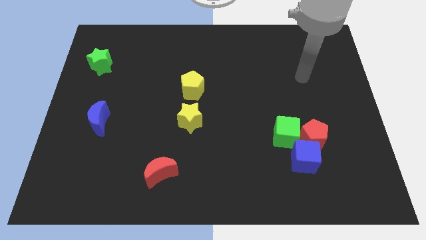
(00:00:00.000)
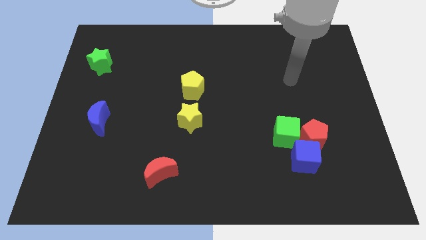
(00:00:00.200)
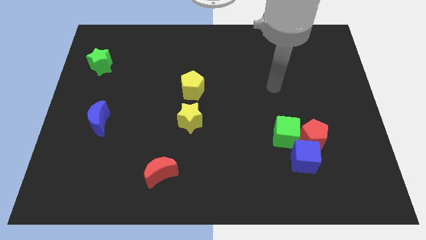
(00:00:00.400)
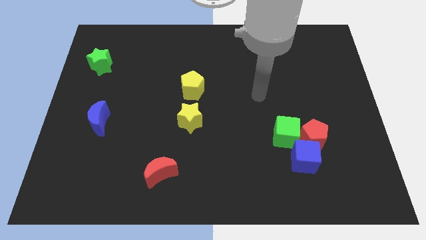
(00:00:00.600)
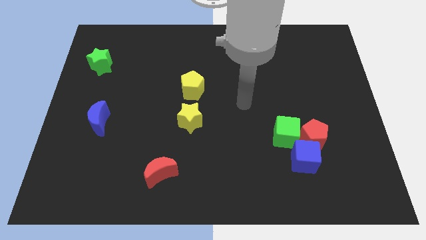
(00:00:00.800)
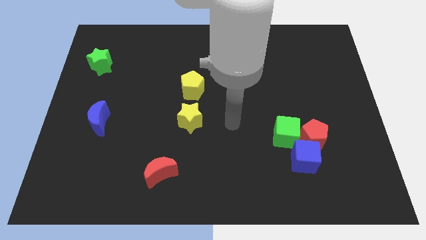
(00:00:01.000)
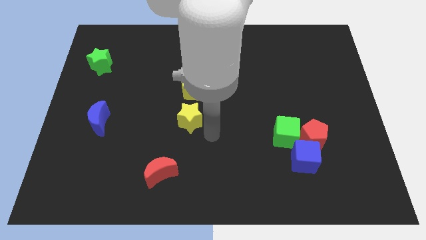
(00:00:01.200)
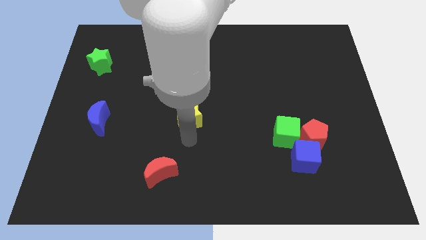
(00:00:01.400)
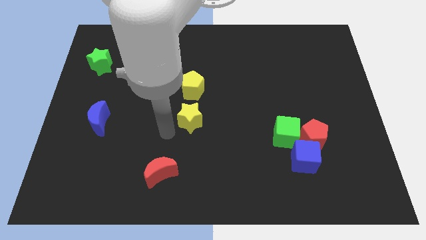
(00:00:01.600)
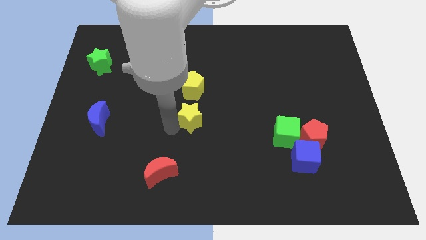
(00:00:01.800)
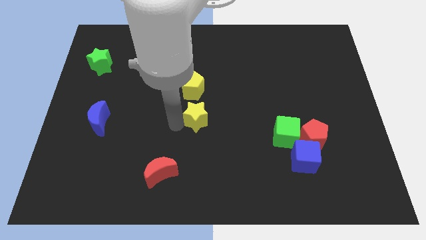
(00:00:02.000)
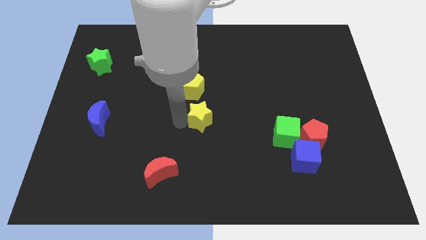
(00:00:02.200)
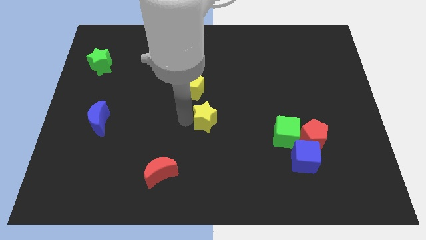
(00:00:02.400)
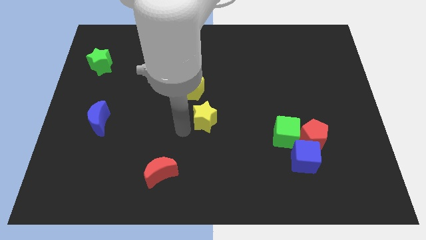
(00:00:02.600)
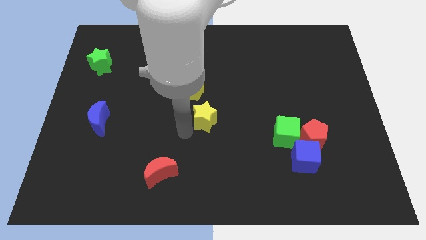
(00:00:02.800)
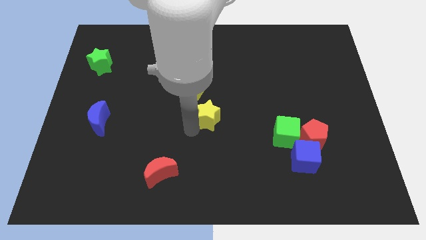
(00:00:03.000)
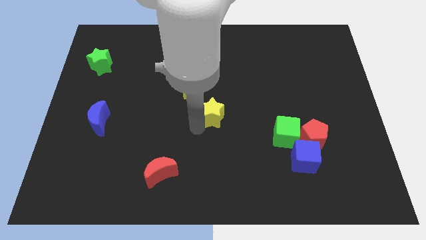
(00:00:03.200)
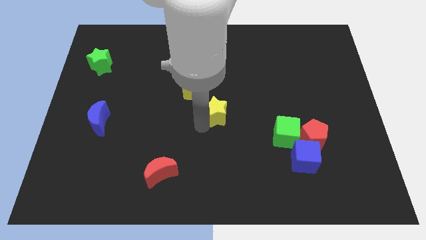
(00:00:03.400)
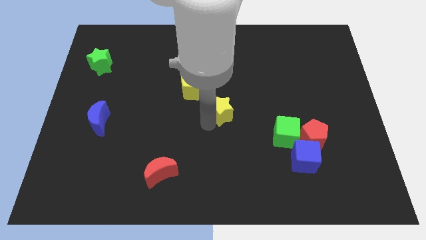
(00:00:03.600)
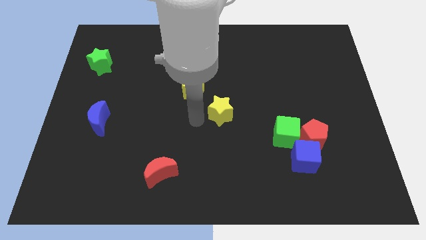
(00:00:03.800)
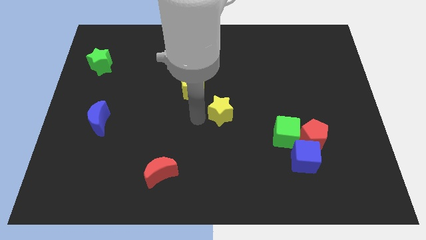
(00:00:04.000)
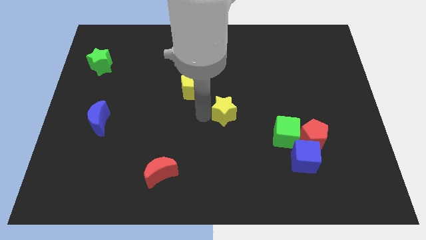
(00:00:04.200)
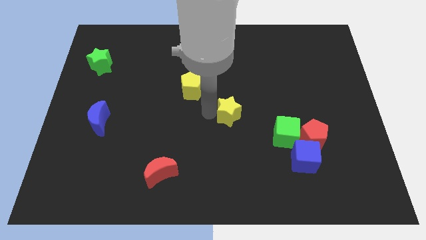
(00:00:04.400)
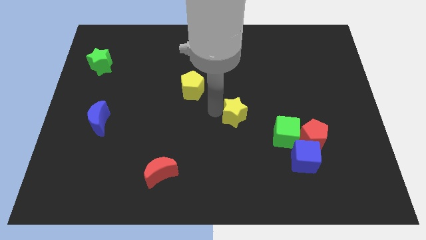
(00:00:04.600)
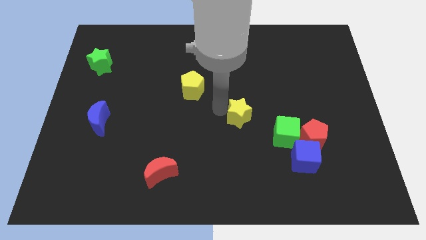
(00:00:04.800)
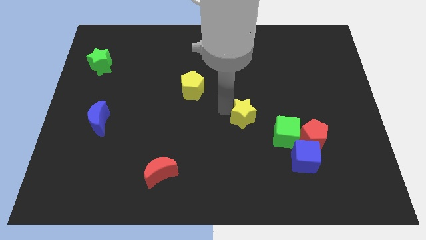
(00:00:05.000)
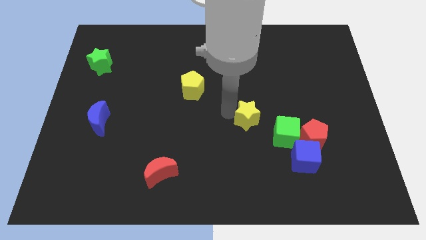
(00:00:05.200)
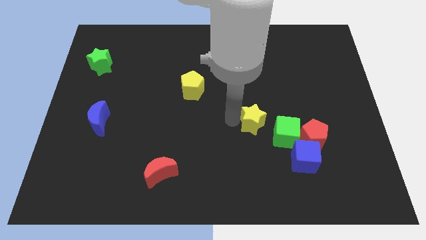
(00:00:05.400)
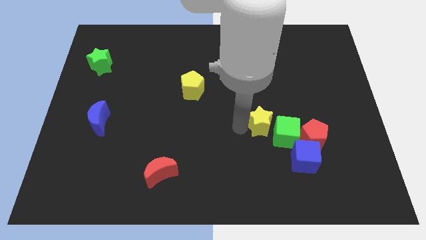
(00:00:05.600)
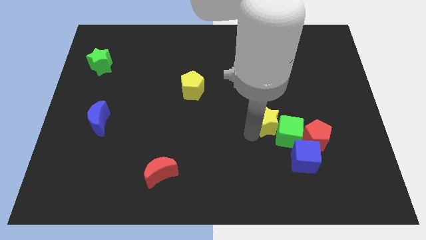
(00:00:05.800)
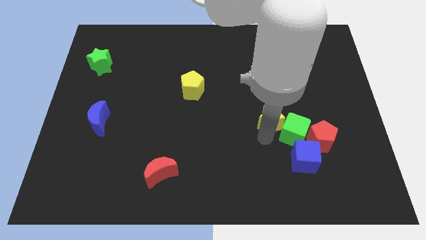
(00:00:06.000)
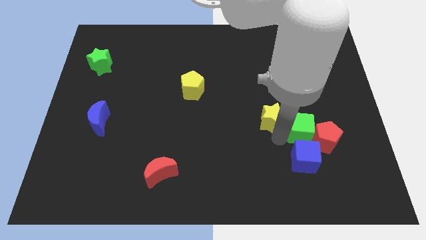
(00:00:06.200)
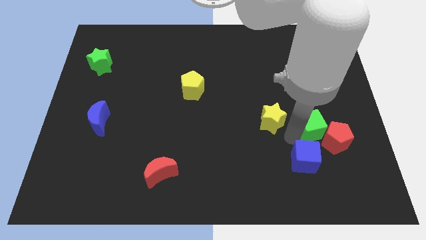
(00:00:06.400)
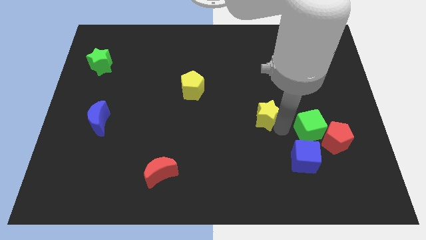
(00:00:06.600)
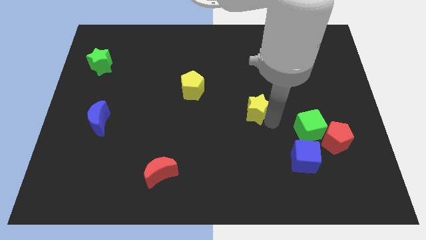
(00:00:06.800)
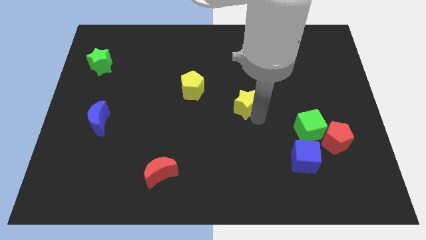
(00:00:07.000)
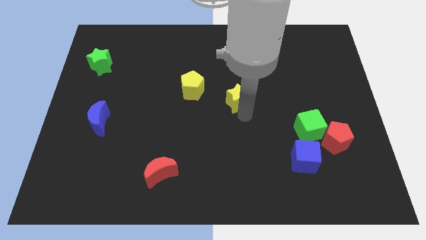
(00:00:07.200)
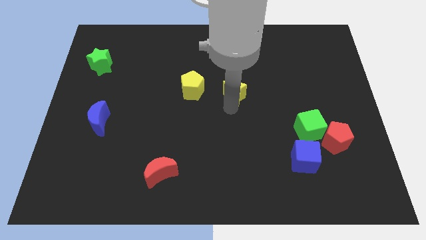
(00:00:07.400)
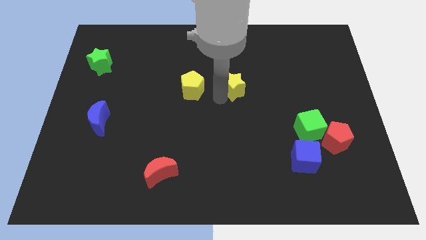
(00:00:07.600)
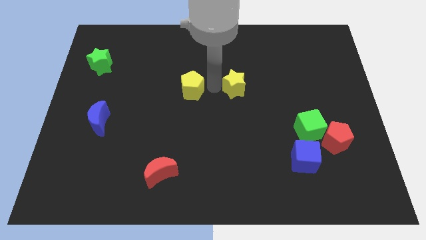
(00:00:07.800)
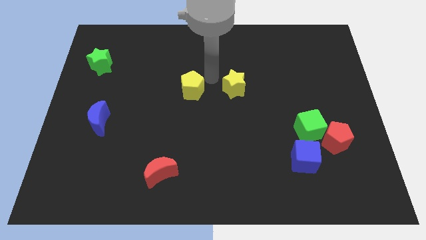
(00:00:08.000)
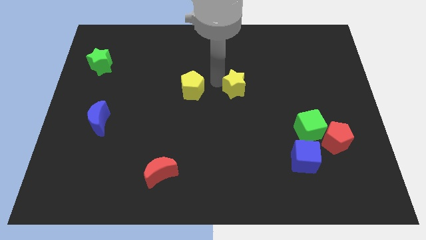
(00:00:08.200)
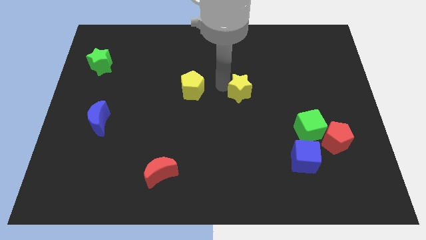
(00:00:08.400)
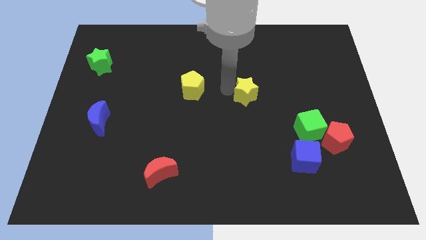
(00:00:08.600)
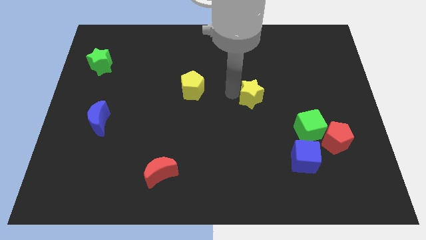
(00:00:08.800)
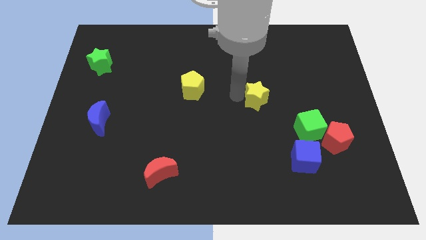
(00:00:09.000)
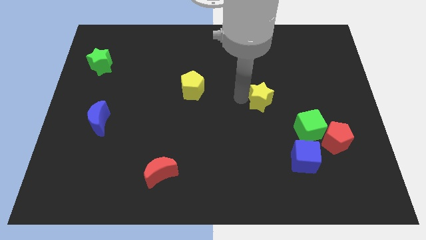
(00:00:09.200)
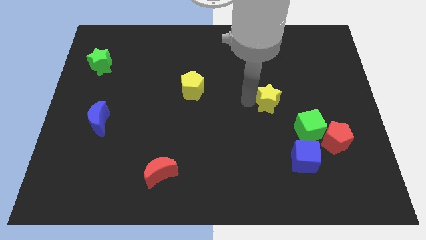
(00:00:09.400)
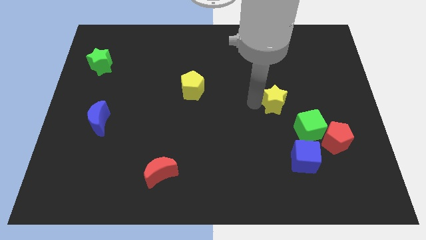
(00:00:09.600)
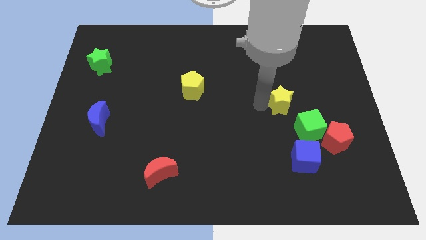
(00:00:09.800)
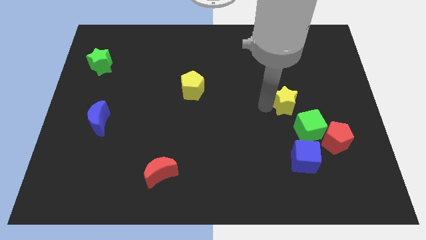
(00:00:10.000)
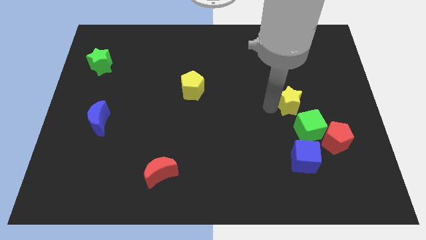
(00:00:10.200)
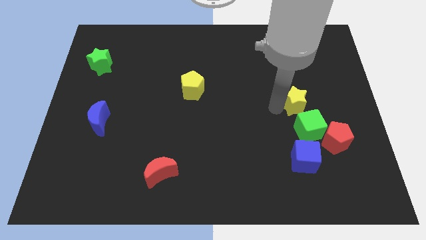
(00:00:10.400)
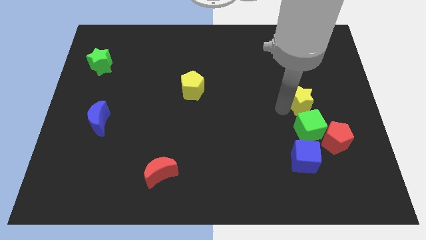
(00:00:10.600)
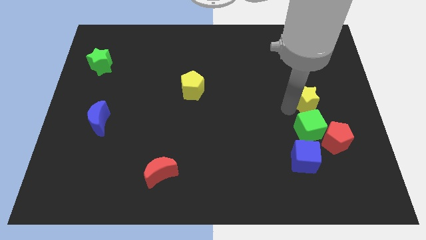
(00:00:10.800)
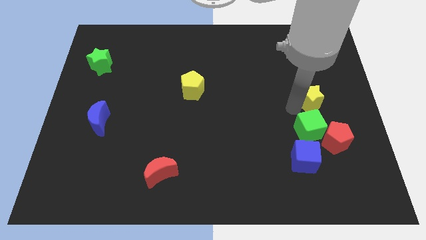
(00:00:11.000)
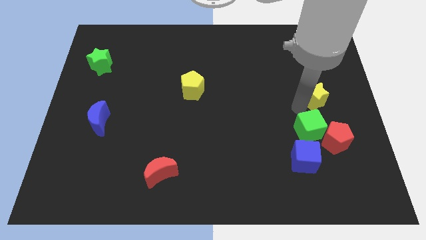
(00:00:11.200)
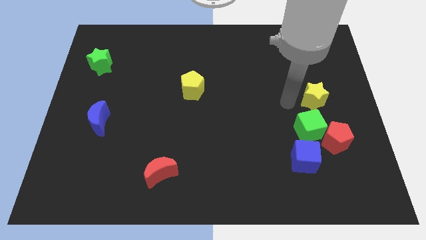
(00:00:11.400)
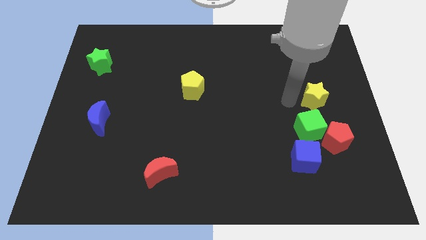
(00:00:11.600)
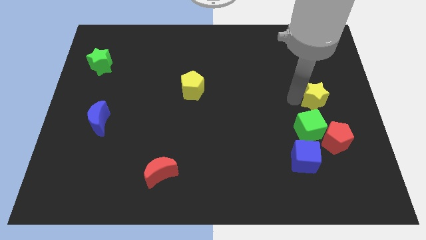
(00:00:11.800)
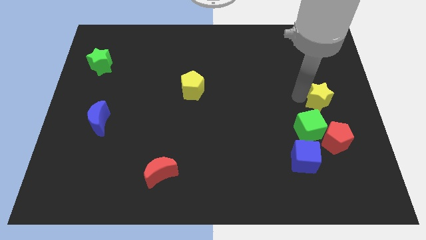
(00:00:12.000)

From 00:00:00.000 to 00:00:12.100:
put the yellow star to the right side

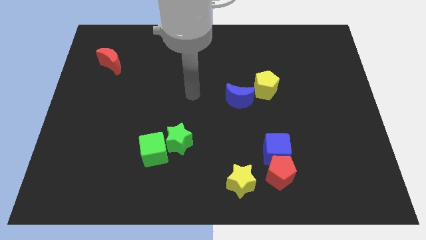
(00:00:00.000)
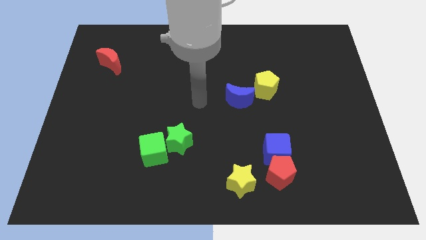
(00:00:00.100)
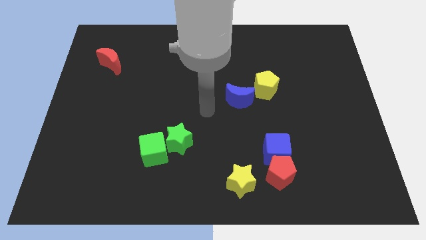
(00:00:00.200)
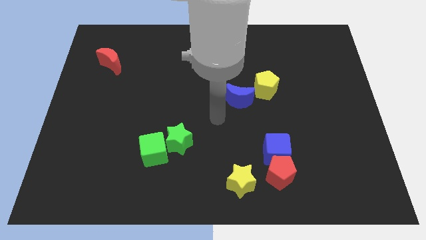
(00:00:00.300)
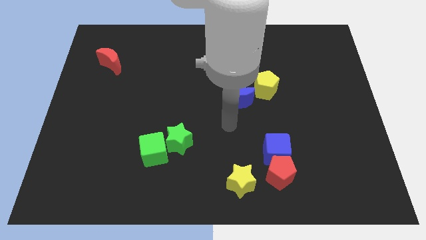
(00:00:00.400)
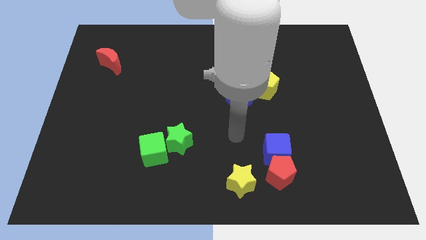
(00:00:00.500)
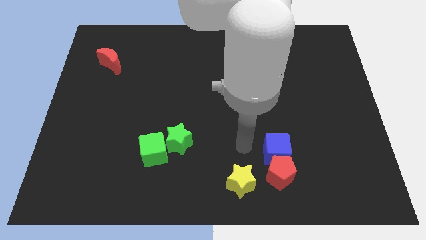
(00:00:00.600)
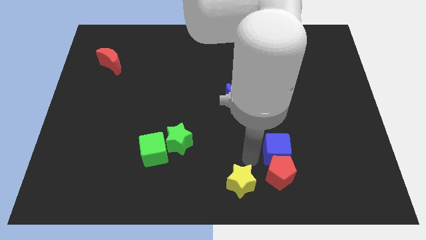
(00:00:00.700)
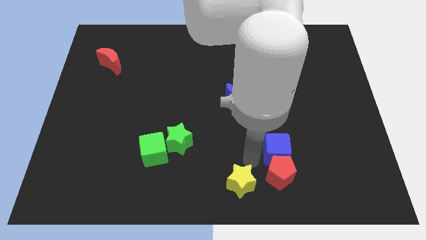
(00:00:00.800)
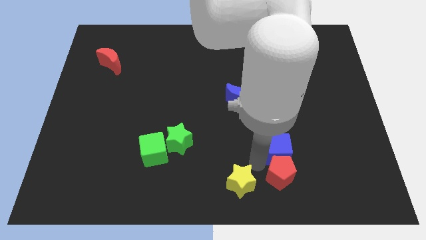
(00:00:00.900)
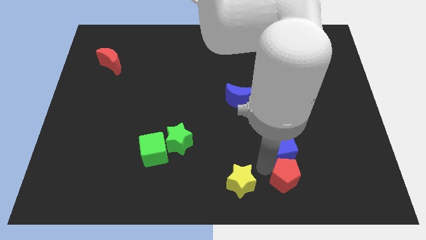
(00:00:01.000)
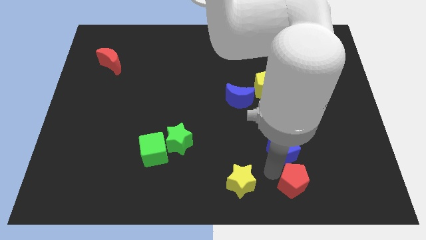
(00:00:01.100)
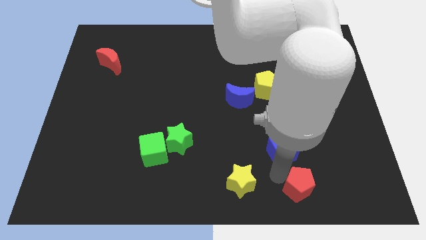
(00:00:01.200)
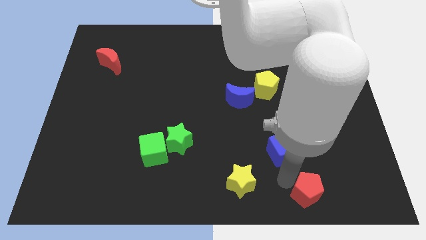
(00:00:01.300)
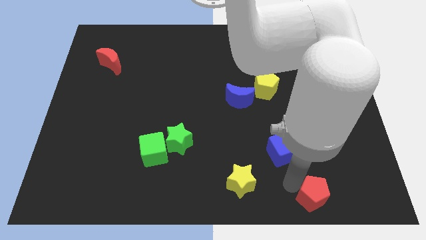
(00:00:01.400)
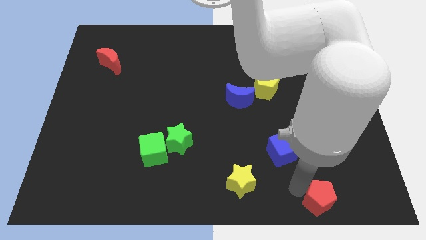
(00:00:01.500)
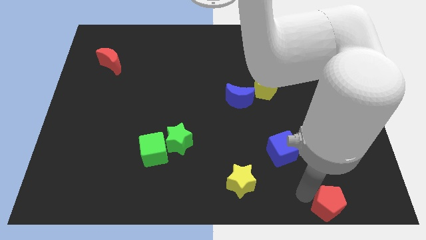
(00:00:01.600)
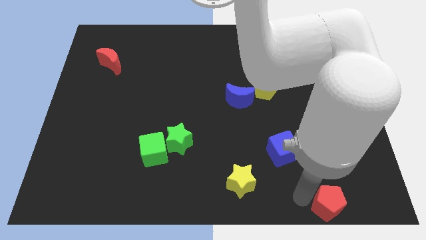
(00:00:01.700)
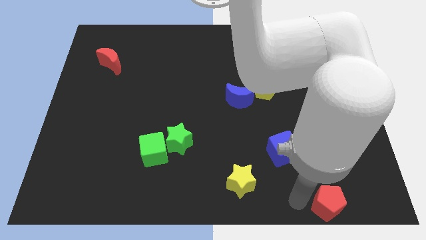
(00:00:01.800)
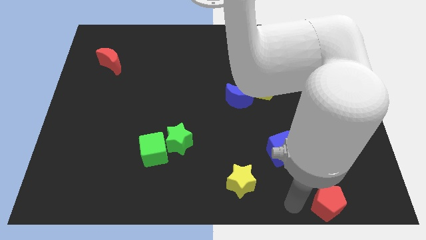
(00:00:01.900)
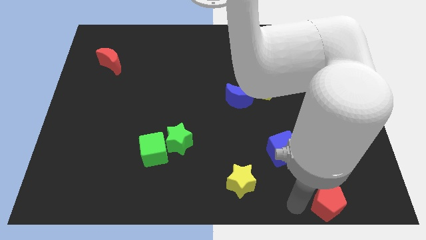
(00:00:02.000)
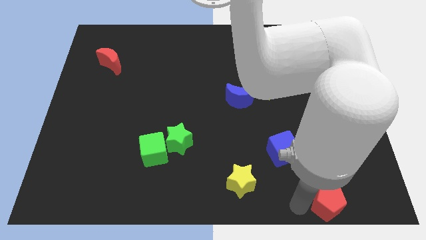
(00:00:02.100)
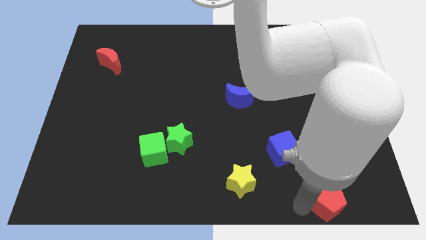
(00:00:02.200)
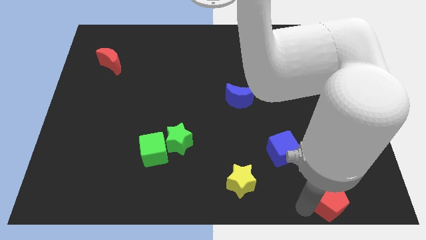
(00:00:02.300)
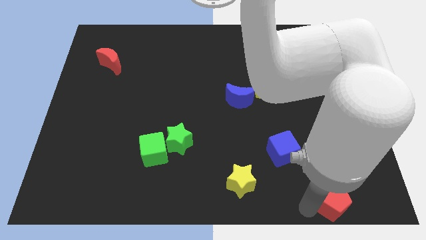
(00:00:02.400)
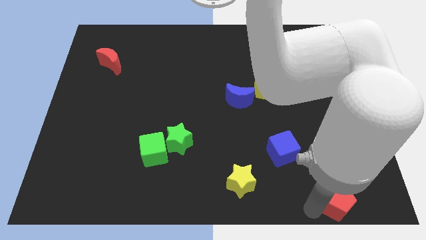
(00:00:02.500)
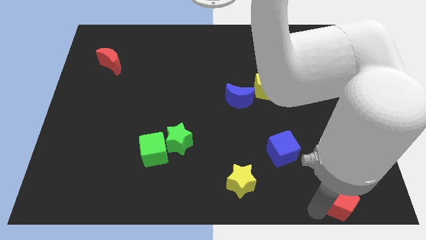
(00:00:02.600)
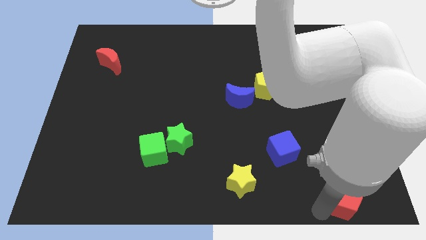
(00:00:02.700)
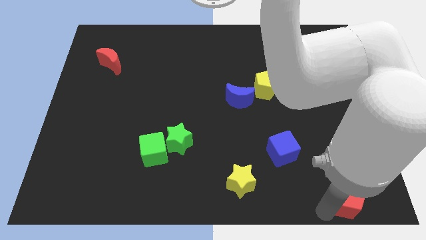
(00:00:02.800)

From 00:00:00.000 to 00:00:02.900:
put the red pentagon to the lower right corner
